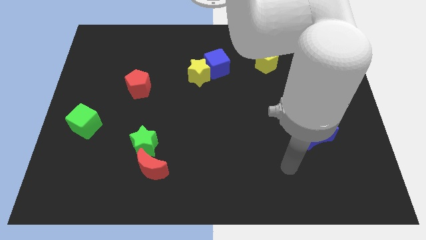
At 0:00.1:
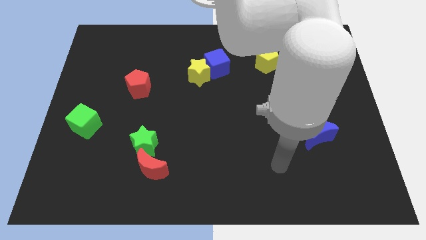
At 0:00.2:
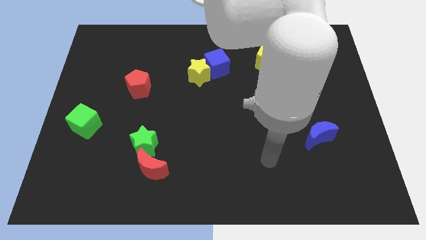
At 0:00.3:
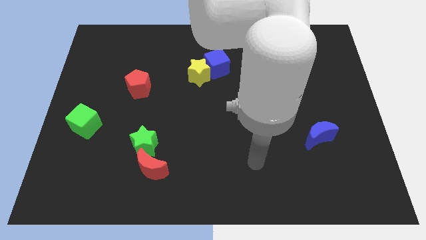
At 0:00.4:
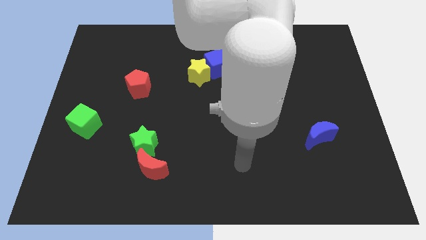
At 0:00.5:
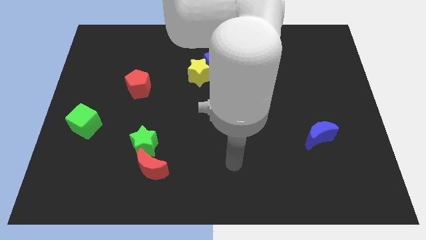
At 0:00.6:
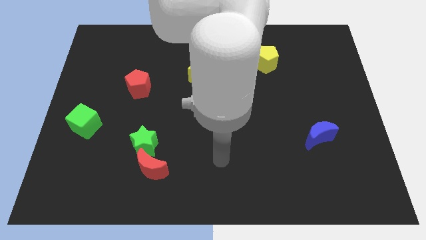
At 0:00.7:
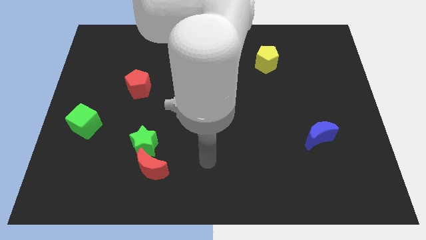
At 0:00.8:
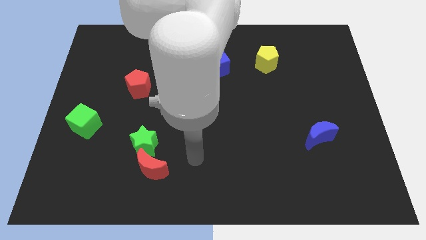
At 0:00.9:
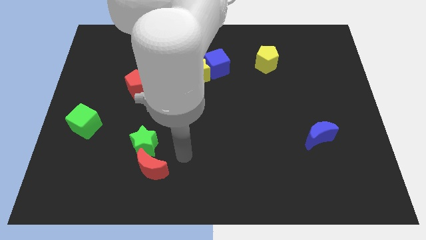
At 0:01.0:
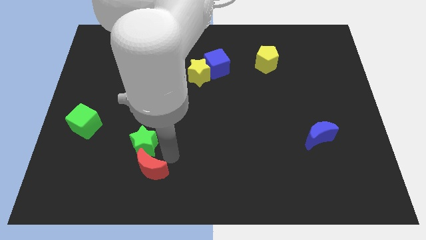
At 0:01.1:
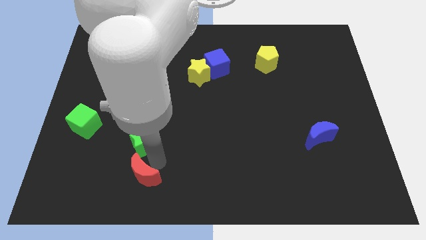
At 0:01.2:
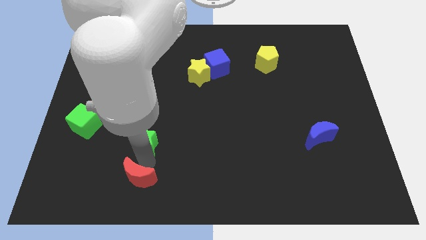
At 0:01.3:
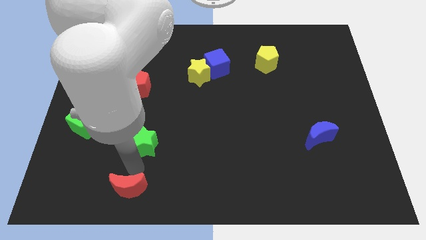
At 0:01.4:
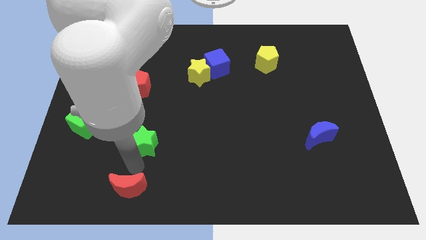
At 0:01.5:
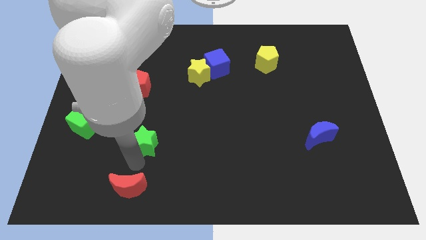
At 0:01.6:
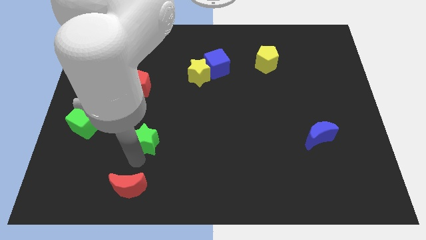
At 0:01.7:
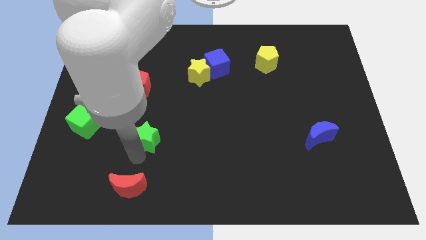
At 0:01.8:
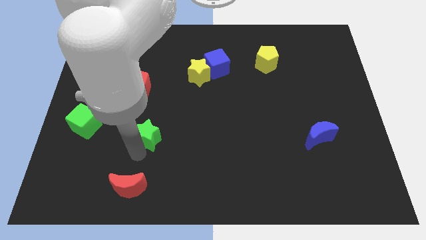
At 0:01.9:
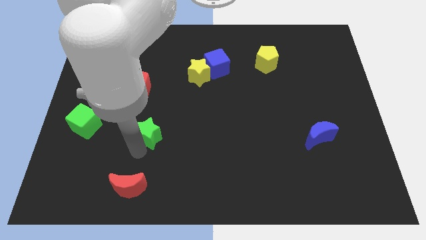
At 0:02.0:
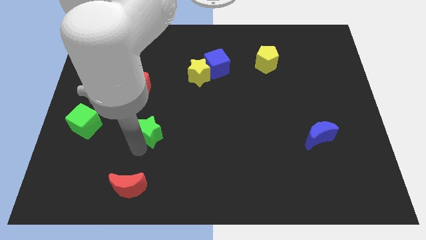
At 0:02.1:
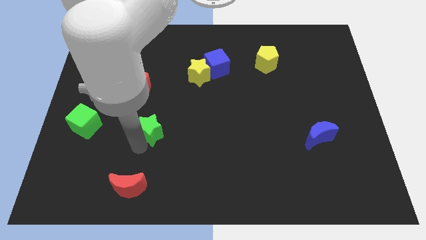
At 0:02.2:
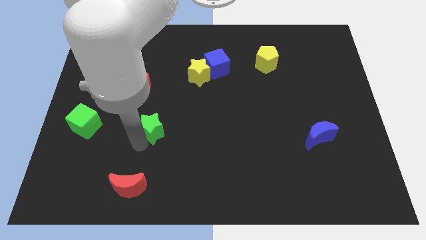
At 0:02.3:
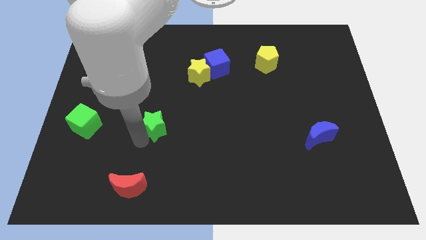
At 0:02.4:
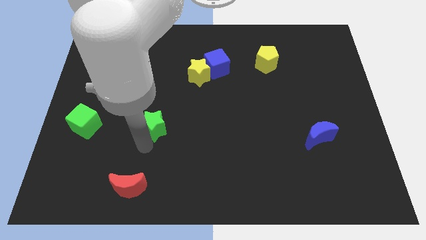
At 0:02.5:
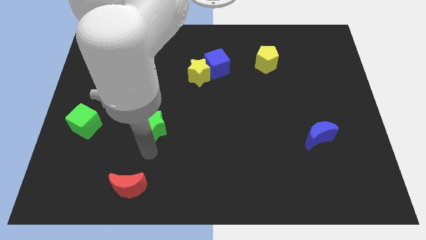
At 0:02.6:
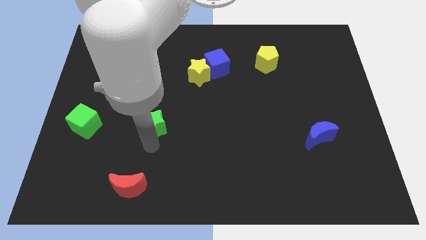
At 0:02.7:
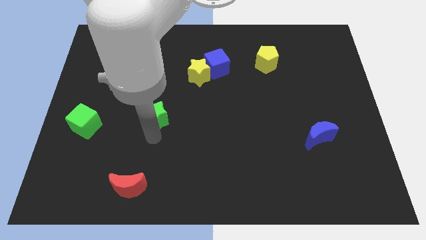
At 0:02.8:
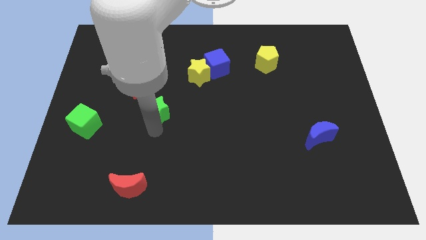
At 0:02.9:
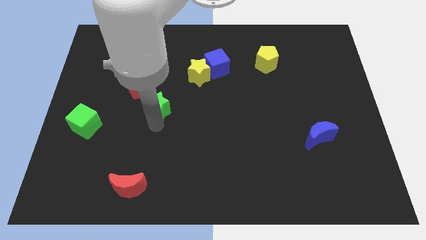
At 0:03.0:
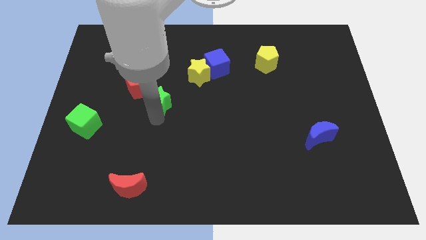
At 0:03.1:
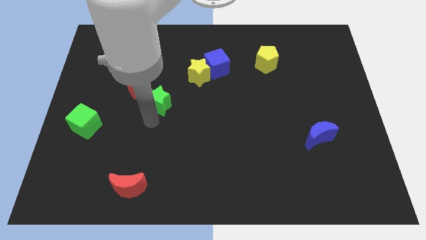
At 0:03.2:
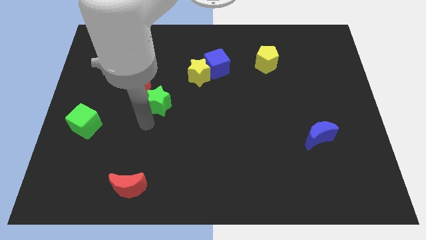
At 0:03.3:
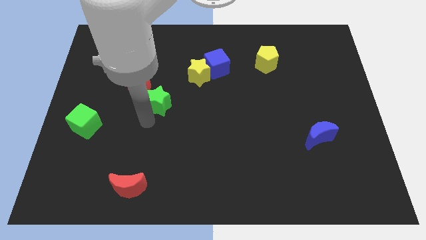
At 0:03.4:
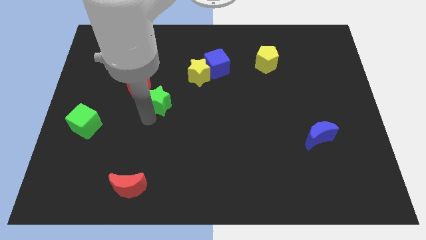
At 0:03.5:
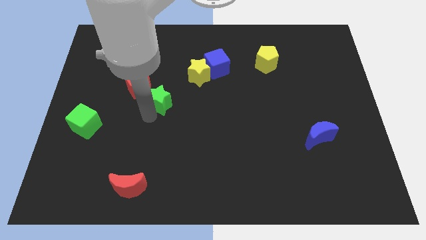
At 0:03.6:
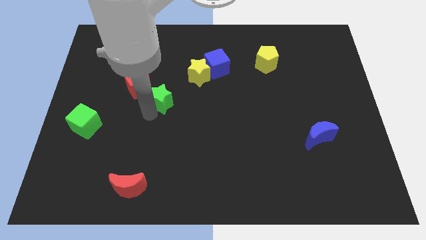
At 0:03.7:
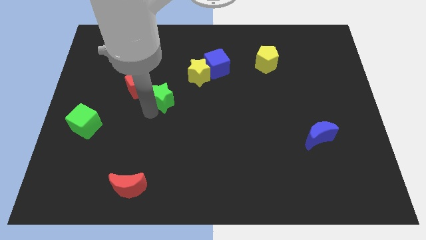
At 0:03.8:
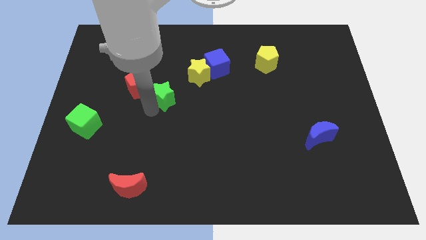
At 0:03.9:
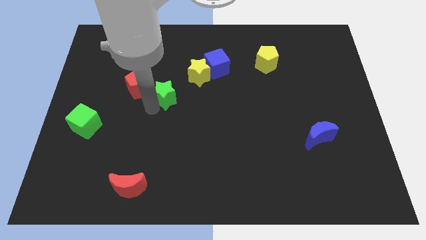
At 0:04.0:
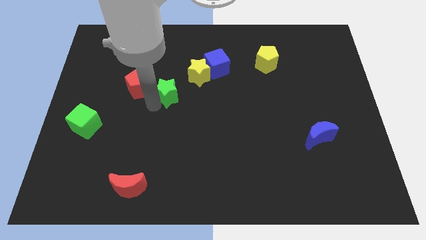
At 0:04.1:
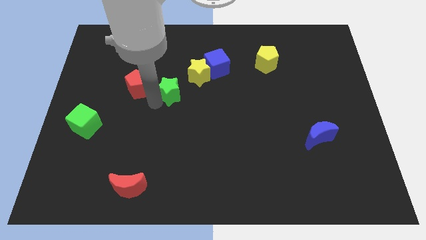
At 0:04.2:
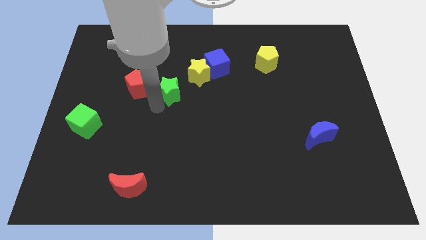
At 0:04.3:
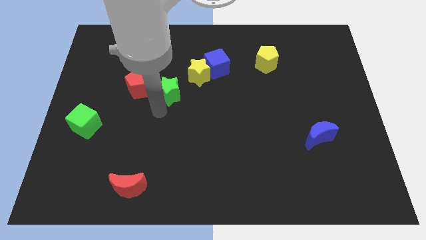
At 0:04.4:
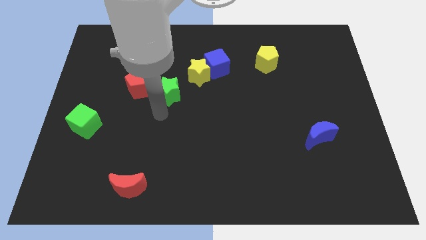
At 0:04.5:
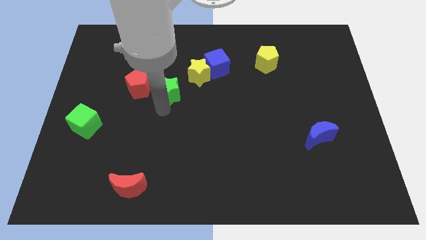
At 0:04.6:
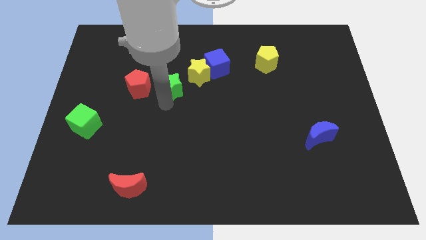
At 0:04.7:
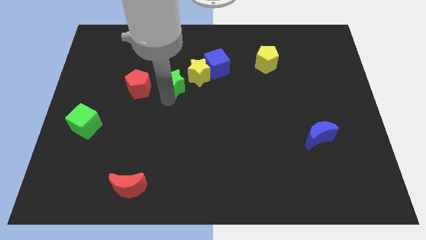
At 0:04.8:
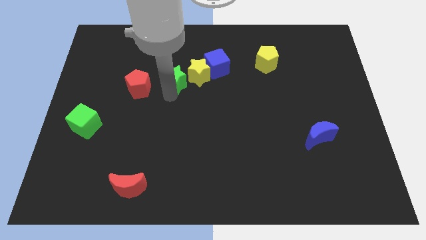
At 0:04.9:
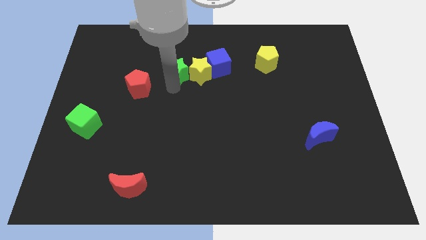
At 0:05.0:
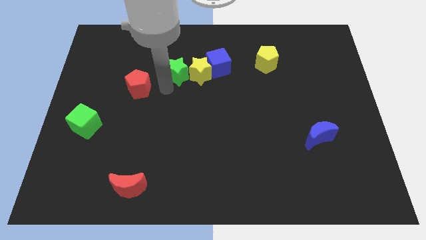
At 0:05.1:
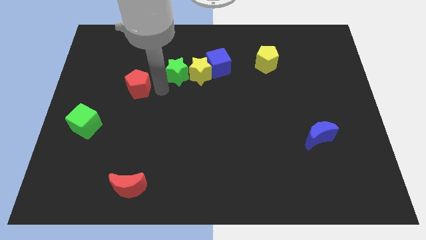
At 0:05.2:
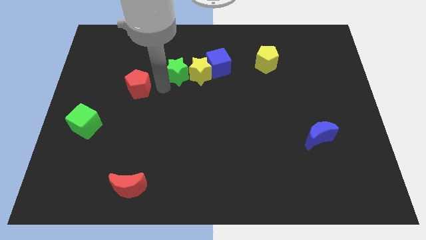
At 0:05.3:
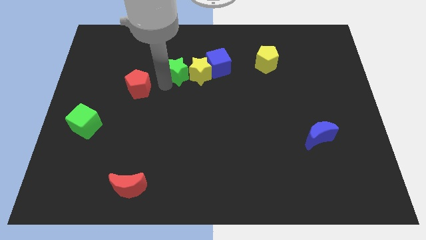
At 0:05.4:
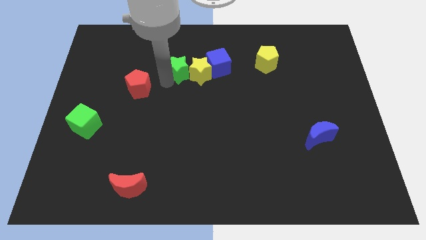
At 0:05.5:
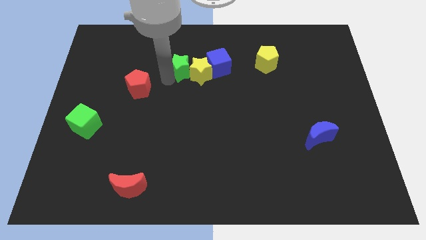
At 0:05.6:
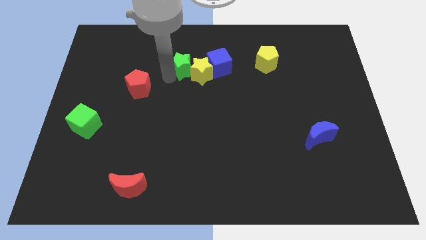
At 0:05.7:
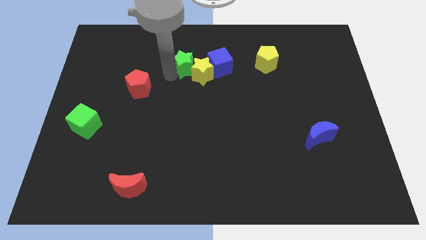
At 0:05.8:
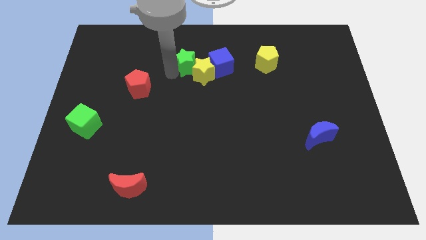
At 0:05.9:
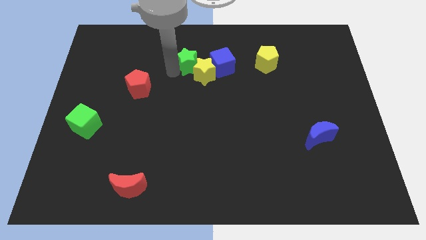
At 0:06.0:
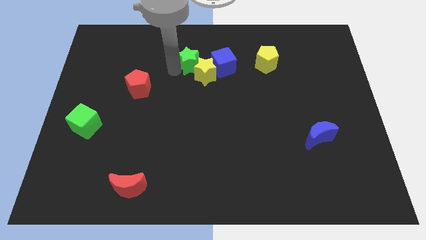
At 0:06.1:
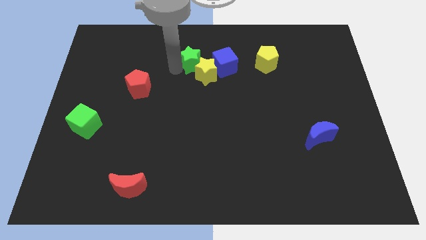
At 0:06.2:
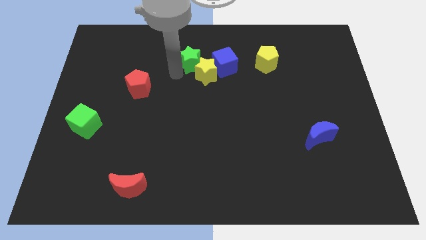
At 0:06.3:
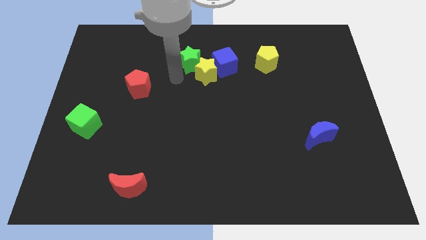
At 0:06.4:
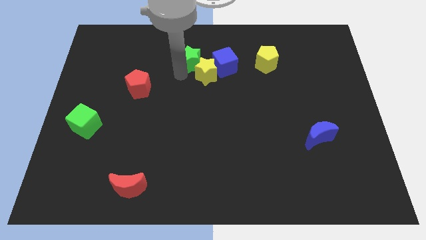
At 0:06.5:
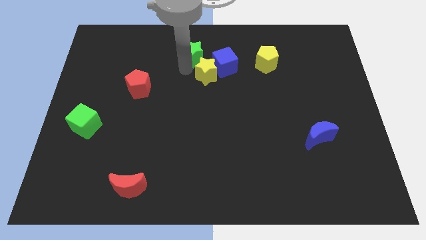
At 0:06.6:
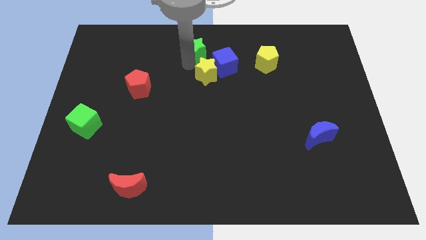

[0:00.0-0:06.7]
move the green star to the top
